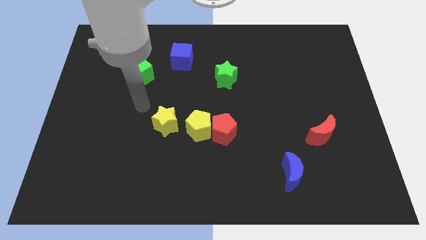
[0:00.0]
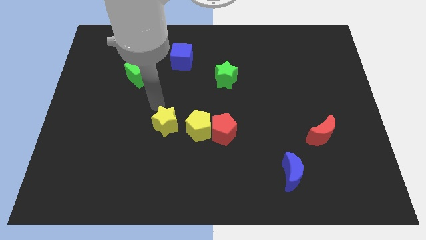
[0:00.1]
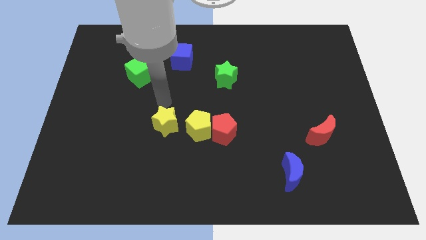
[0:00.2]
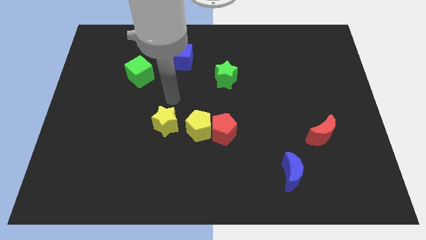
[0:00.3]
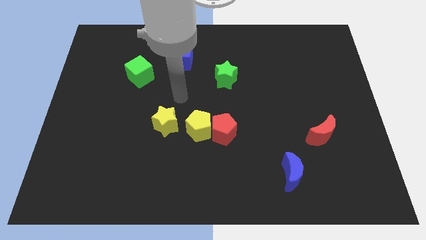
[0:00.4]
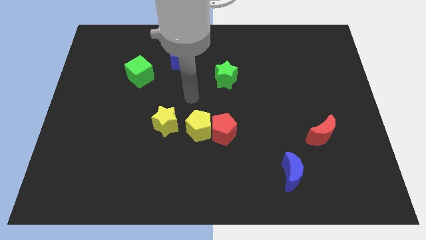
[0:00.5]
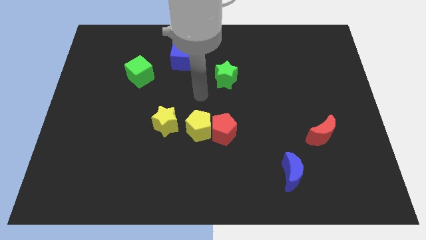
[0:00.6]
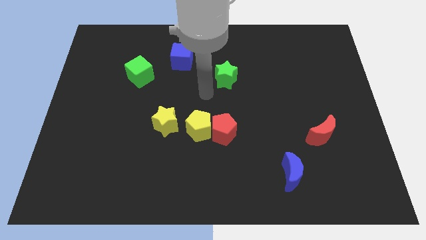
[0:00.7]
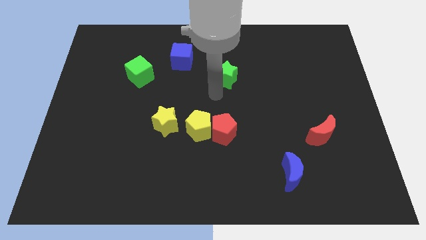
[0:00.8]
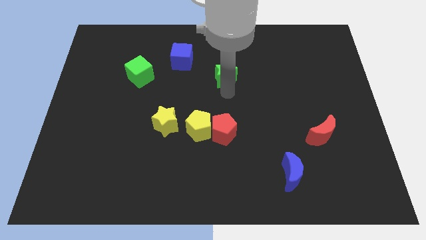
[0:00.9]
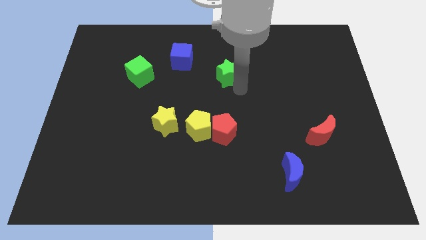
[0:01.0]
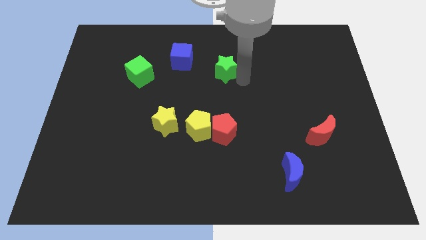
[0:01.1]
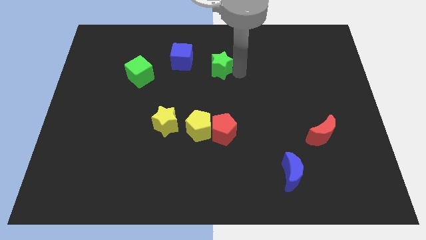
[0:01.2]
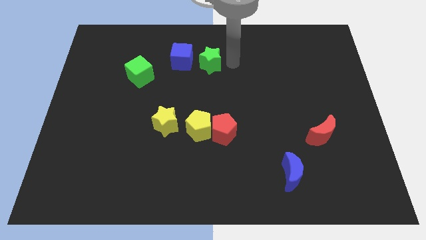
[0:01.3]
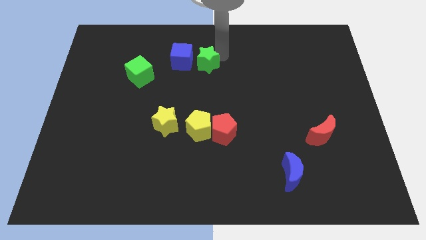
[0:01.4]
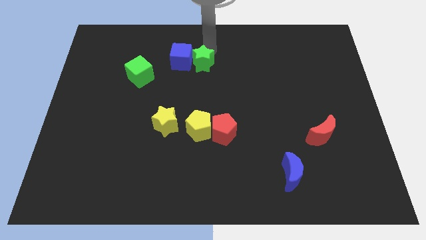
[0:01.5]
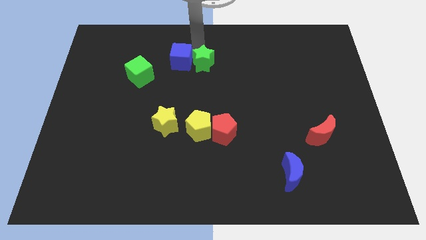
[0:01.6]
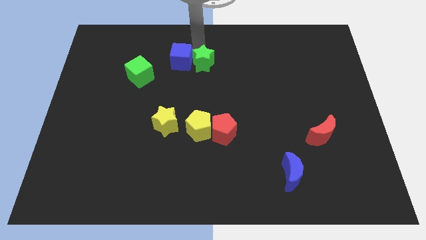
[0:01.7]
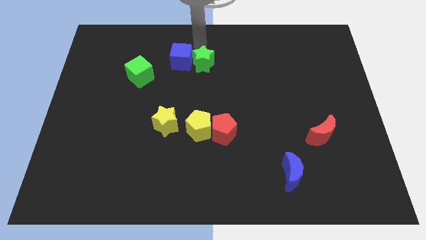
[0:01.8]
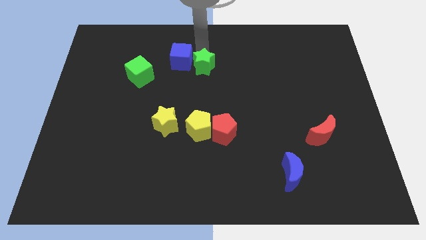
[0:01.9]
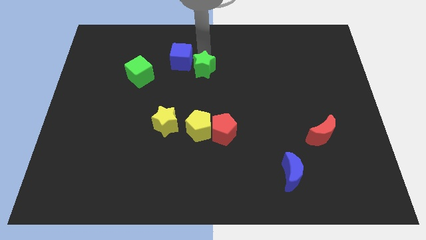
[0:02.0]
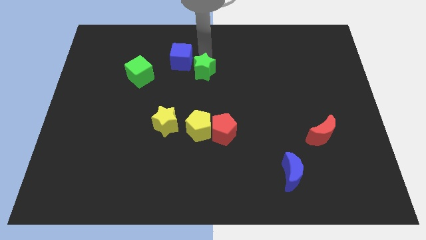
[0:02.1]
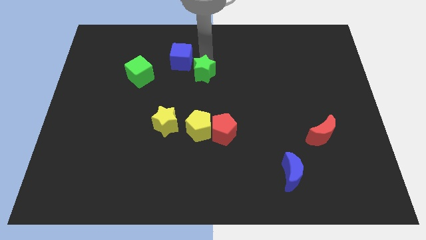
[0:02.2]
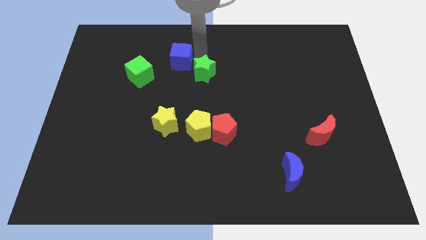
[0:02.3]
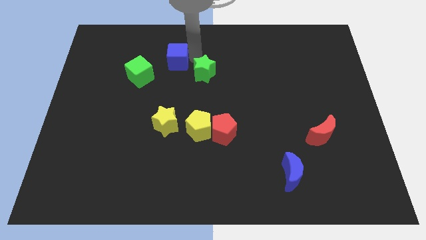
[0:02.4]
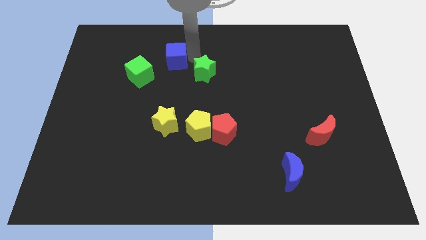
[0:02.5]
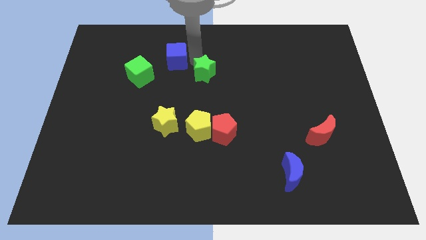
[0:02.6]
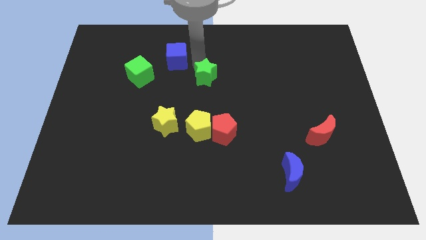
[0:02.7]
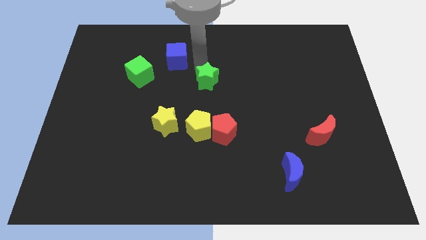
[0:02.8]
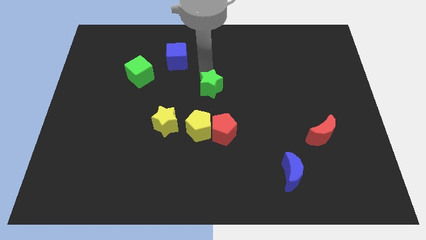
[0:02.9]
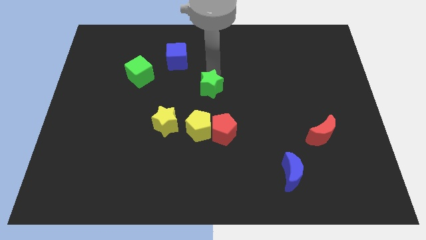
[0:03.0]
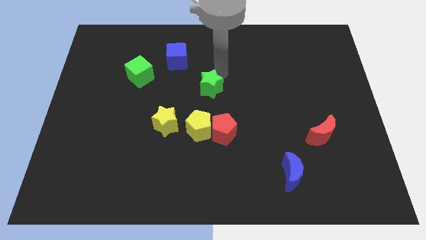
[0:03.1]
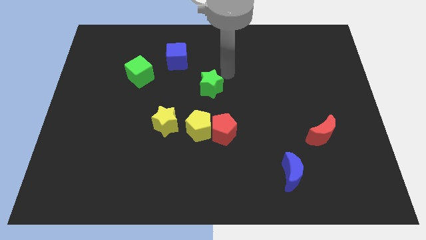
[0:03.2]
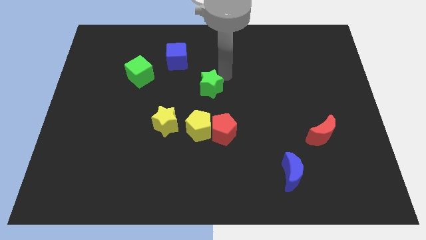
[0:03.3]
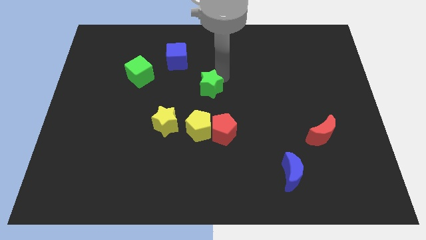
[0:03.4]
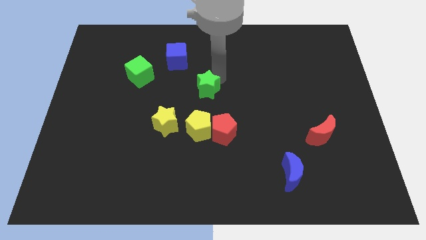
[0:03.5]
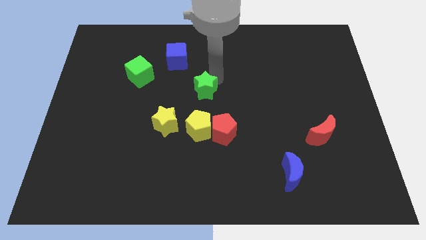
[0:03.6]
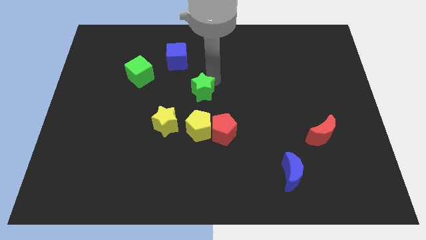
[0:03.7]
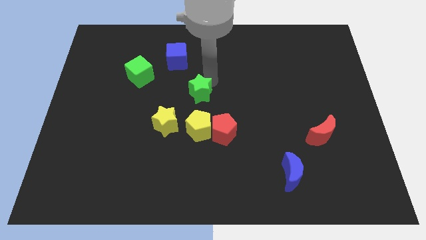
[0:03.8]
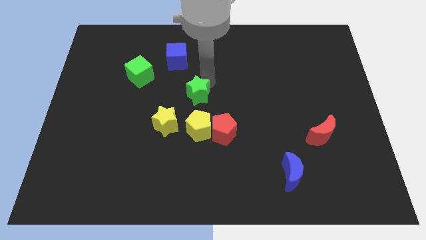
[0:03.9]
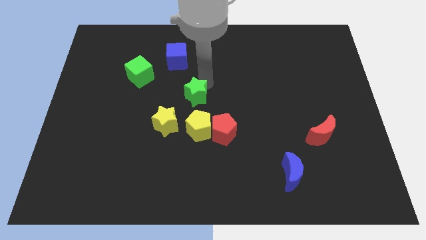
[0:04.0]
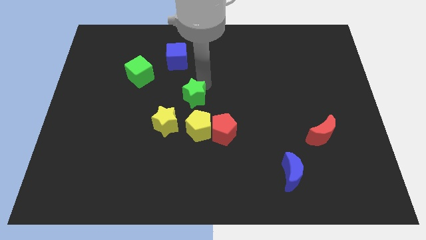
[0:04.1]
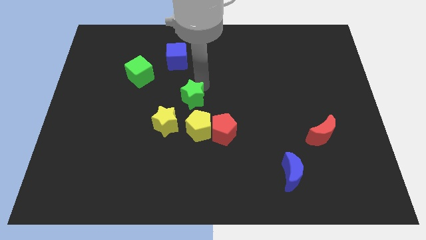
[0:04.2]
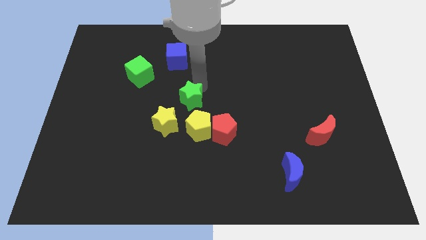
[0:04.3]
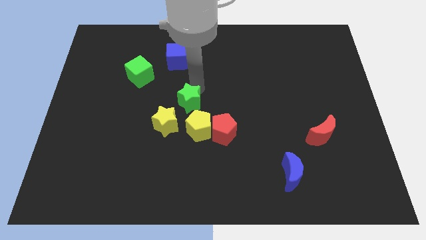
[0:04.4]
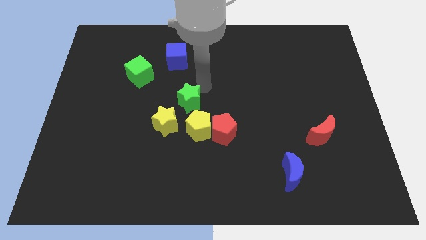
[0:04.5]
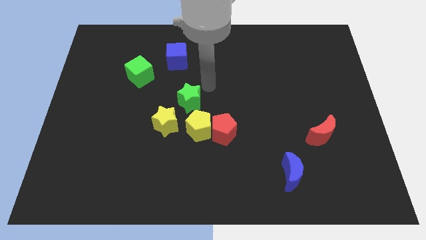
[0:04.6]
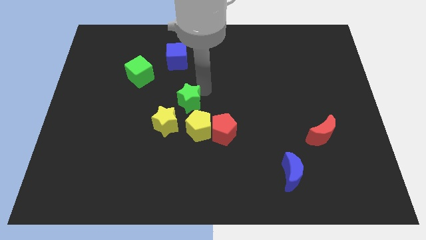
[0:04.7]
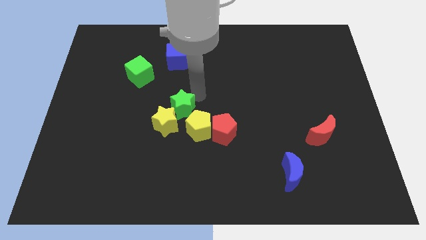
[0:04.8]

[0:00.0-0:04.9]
move the green star close to the yellow star

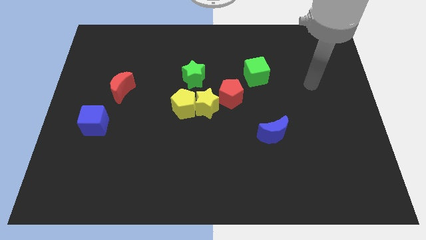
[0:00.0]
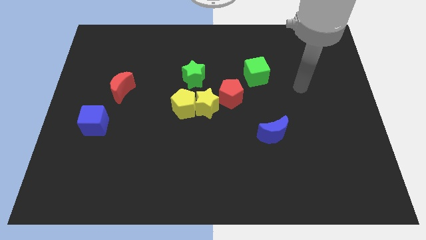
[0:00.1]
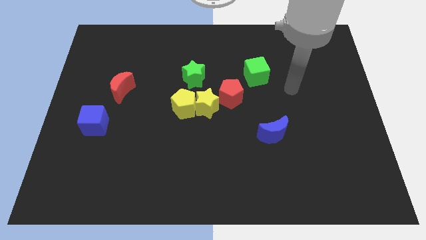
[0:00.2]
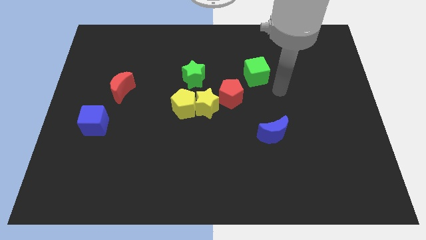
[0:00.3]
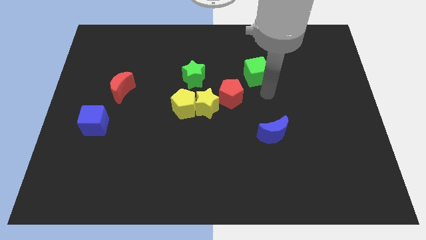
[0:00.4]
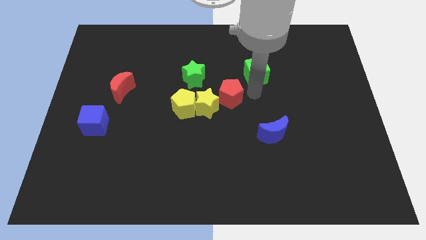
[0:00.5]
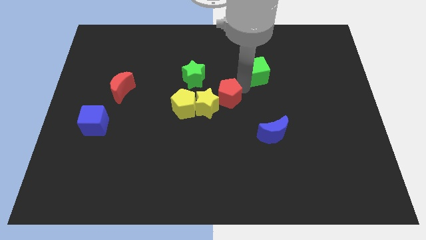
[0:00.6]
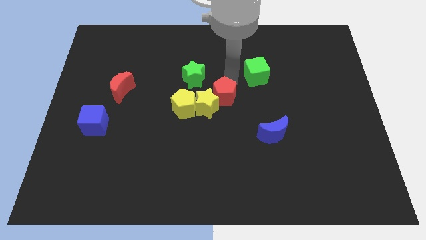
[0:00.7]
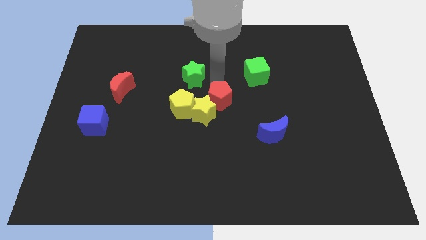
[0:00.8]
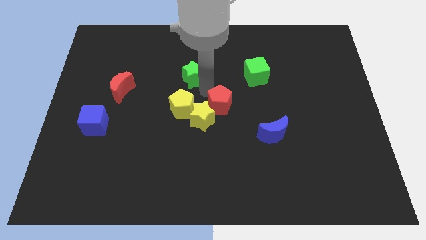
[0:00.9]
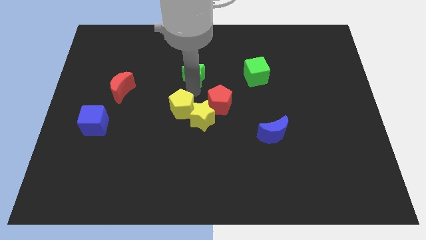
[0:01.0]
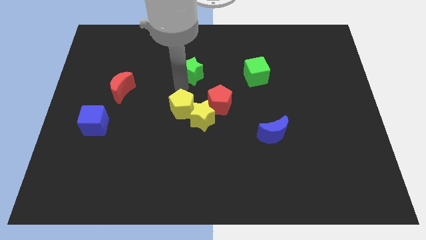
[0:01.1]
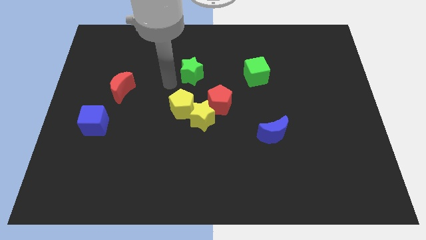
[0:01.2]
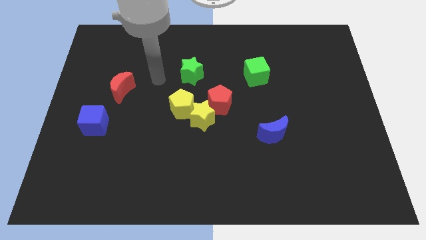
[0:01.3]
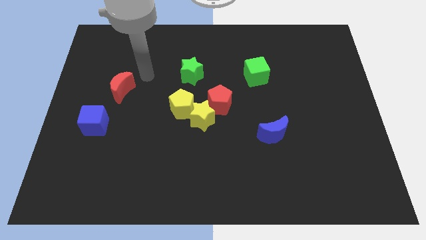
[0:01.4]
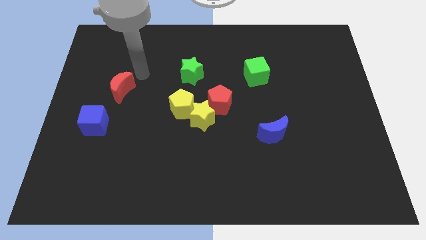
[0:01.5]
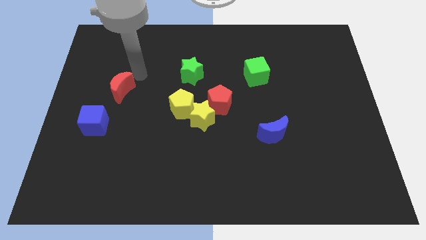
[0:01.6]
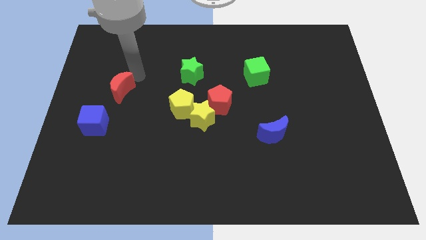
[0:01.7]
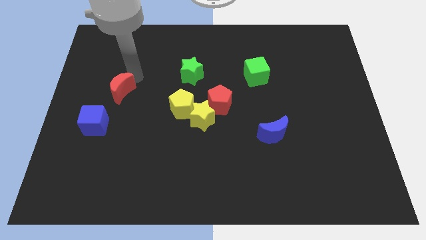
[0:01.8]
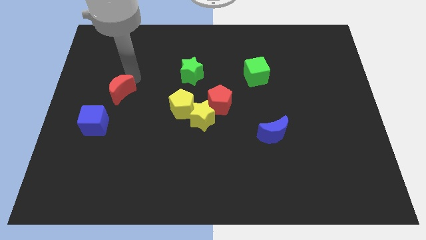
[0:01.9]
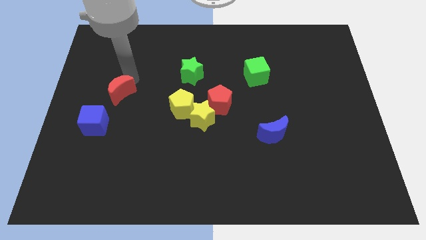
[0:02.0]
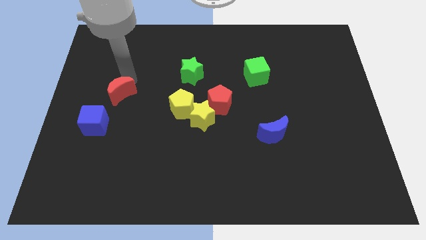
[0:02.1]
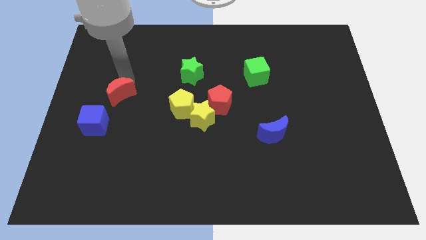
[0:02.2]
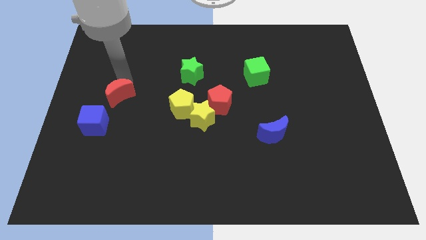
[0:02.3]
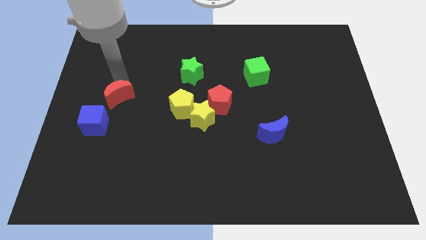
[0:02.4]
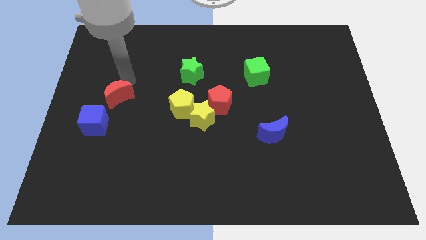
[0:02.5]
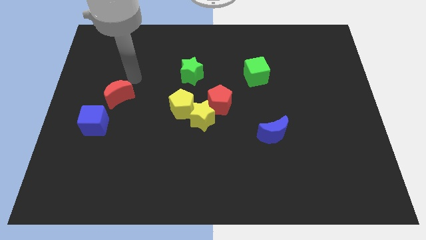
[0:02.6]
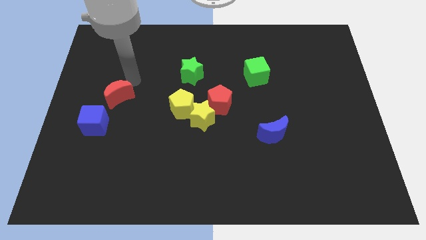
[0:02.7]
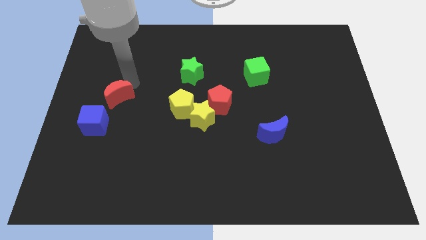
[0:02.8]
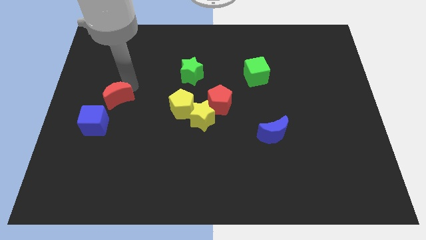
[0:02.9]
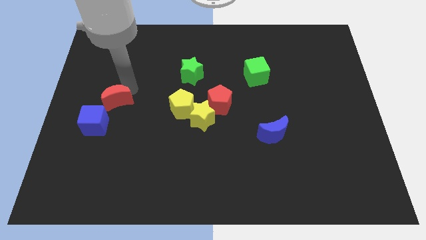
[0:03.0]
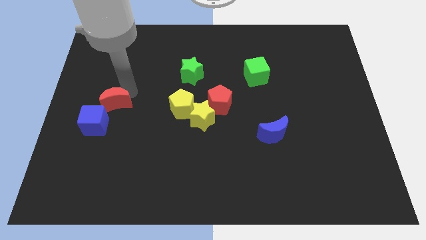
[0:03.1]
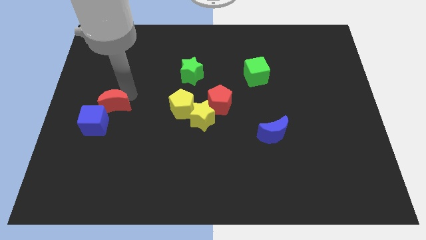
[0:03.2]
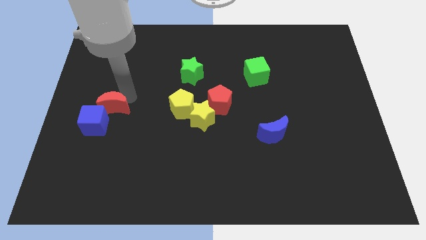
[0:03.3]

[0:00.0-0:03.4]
slide the red moon next to the blue cube
